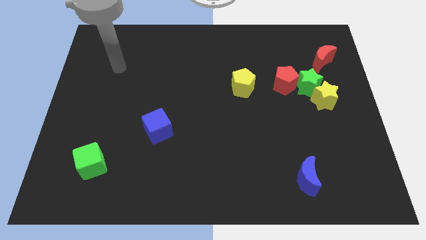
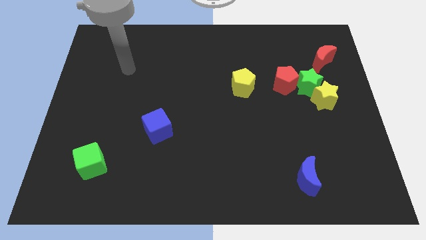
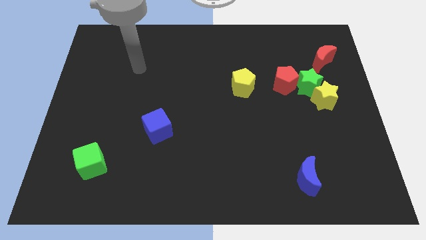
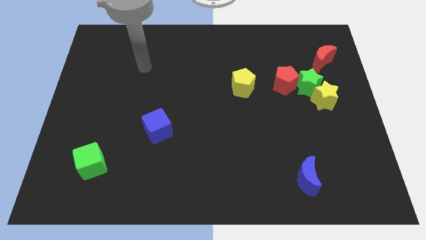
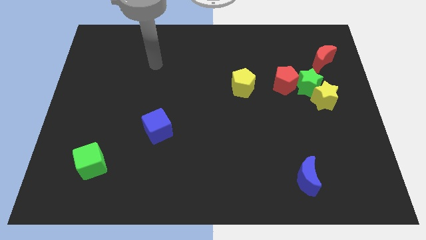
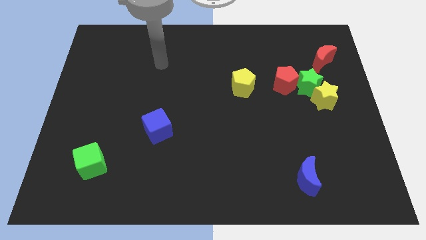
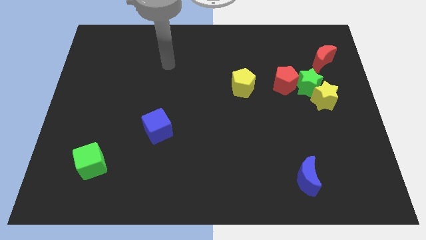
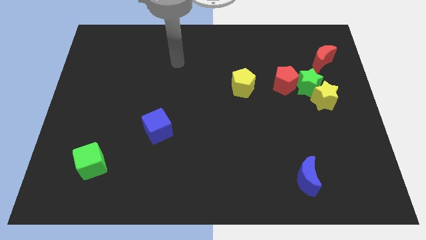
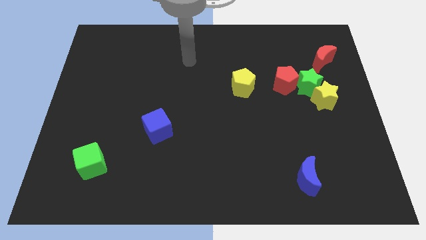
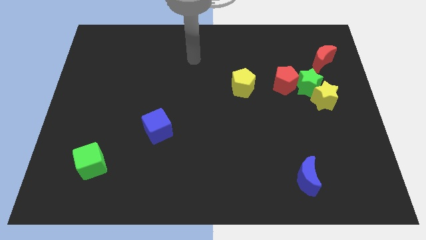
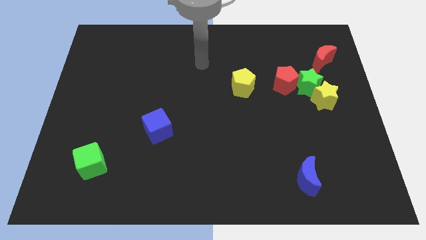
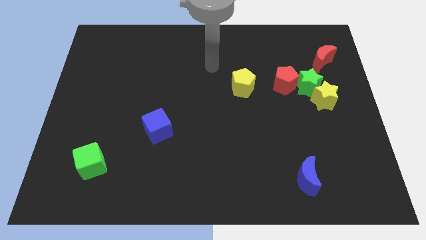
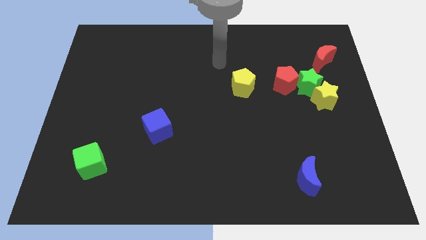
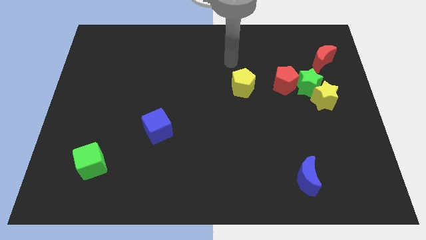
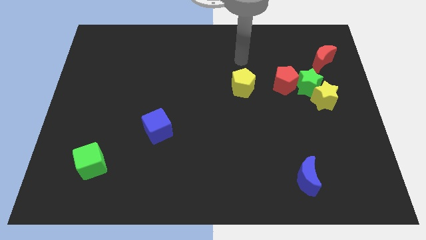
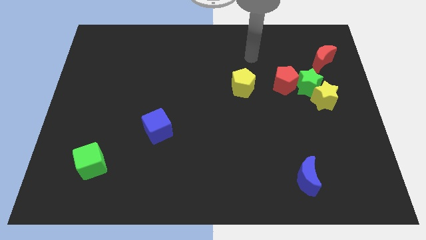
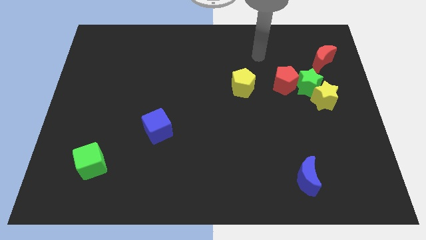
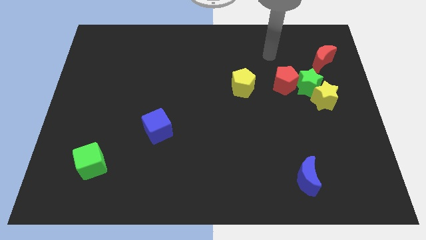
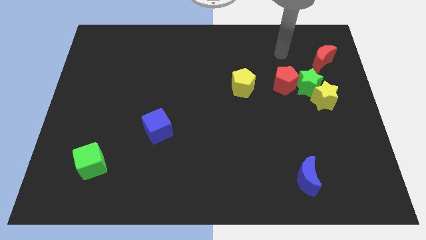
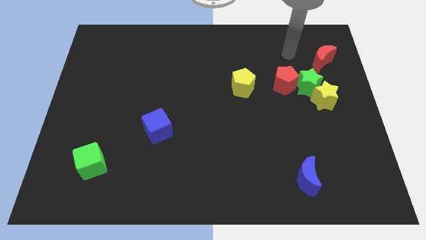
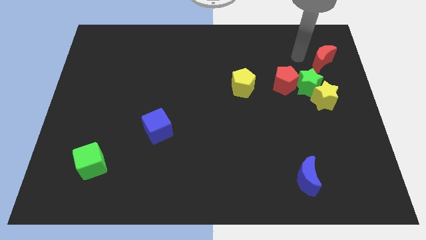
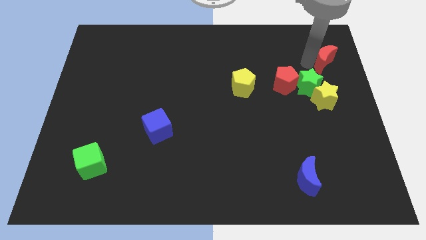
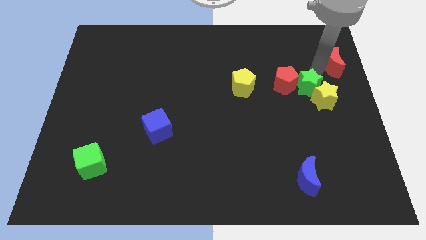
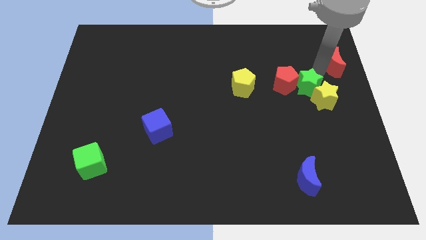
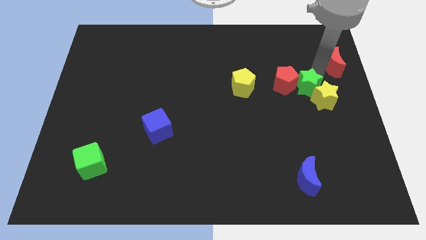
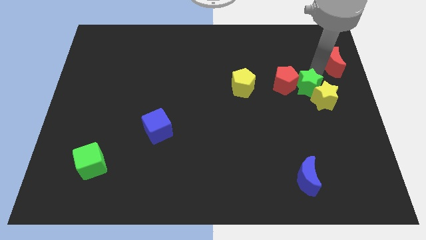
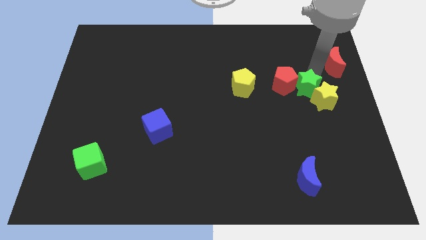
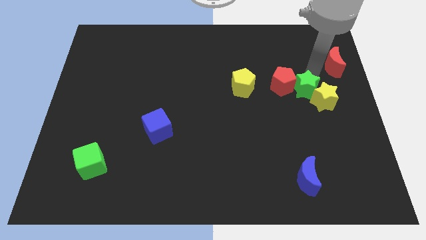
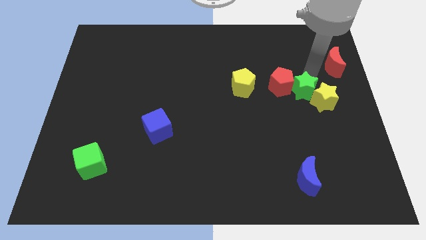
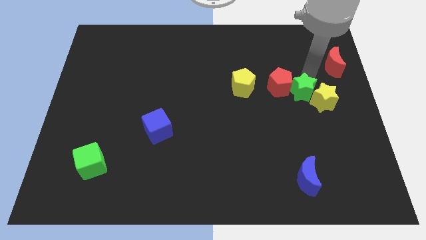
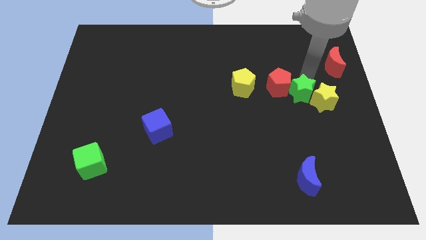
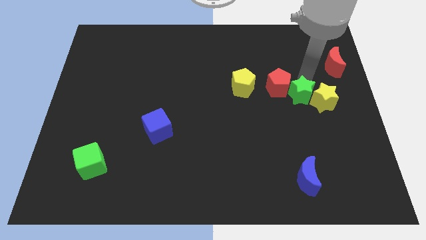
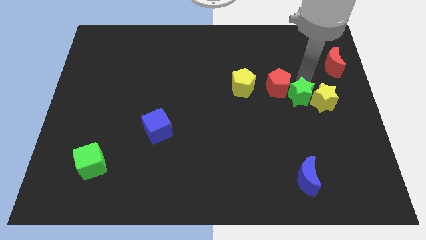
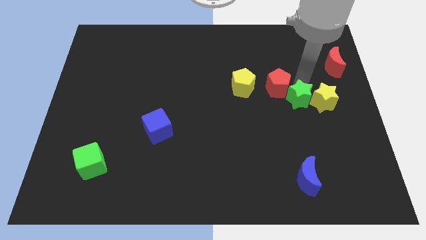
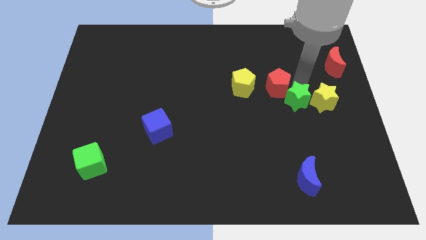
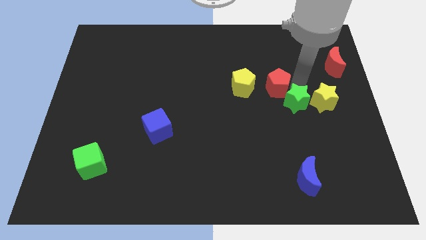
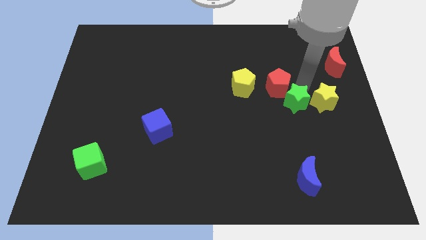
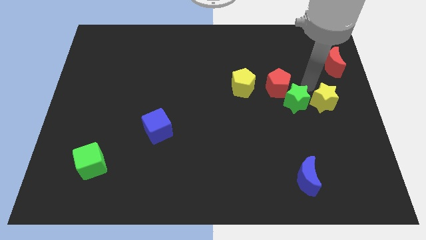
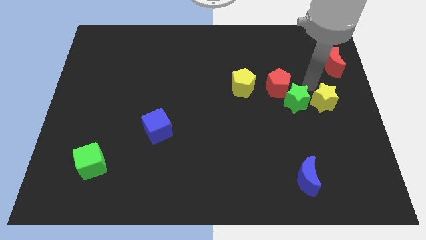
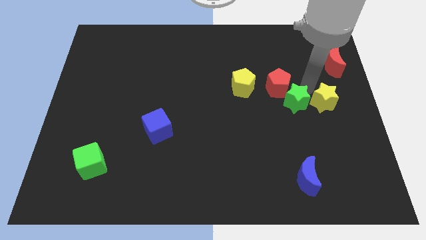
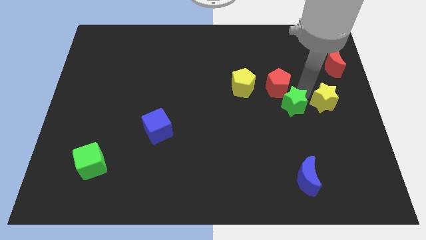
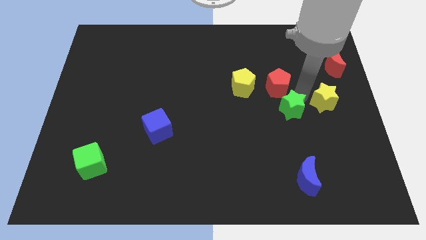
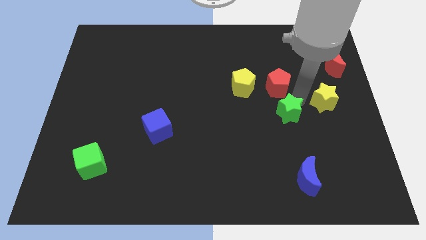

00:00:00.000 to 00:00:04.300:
separate the green star from the yellow star, red pentagon, and red moon

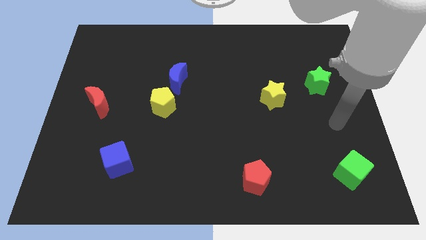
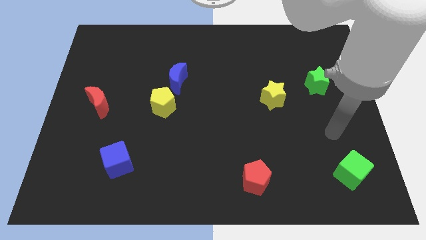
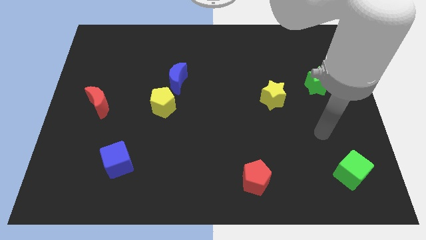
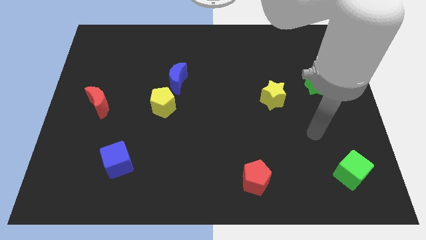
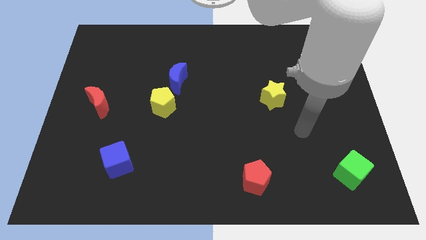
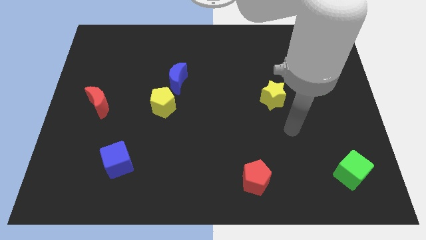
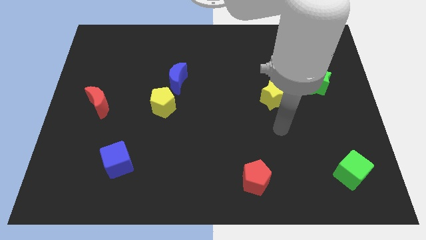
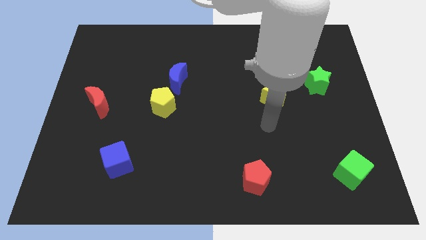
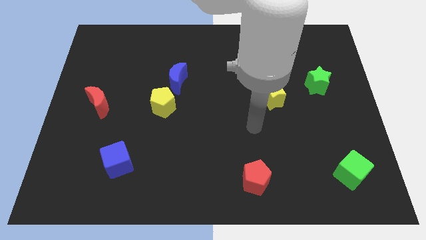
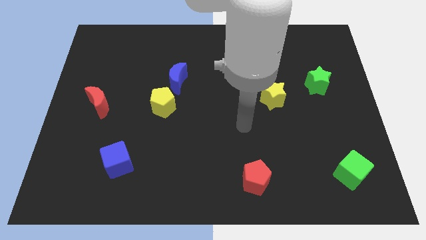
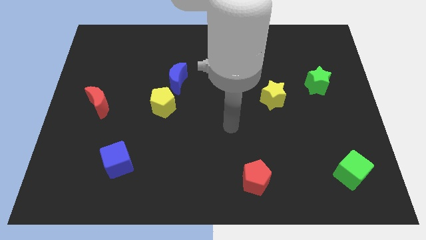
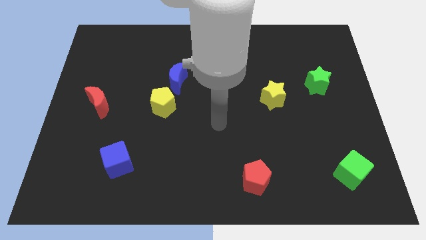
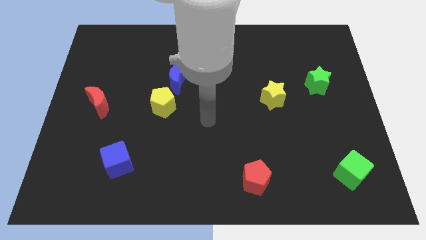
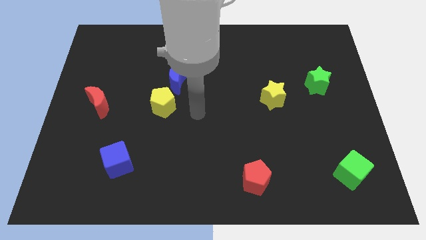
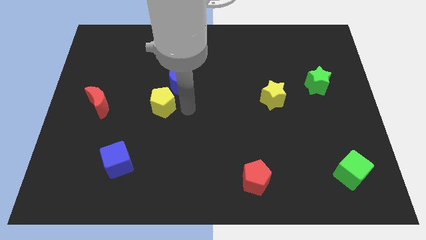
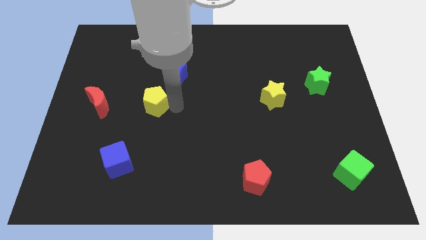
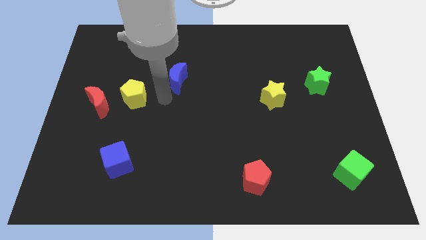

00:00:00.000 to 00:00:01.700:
pull the blue moon apart from the yellow pentagon

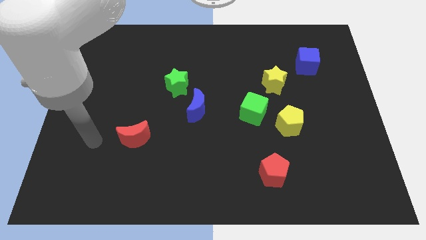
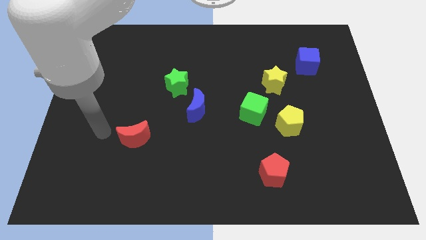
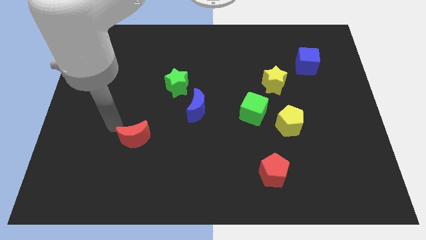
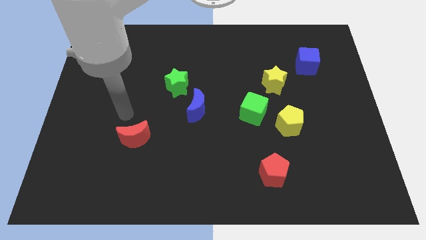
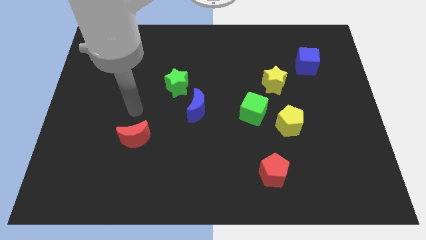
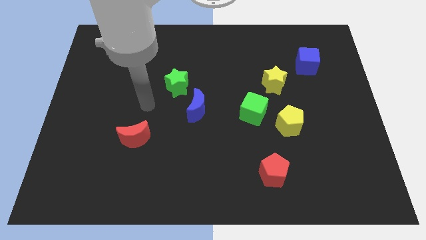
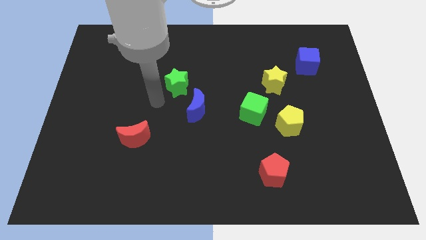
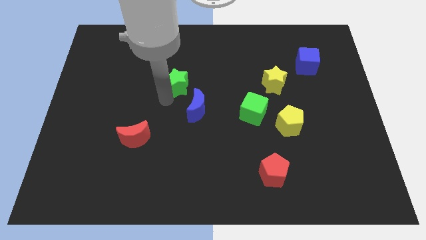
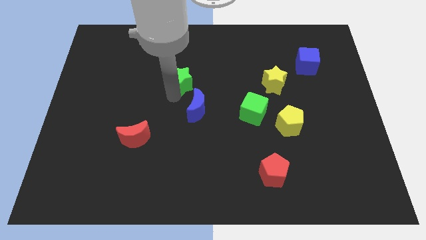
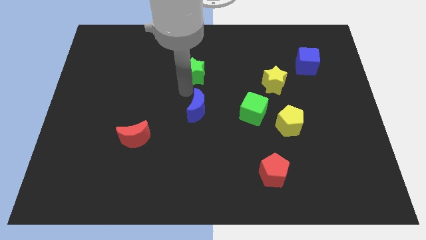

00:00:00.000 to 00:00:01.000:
separate the blue moon from the green star

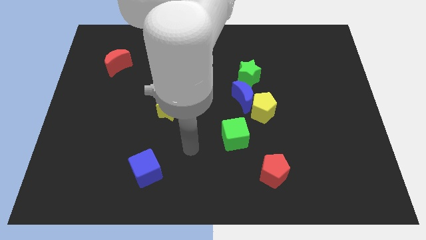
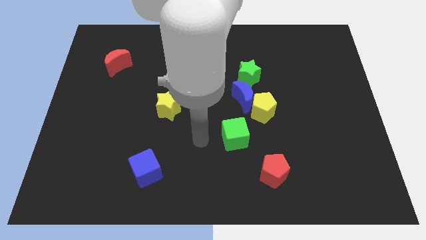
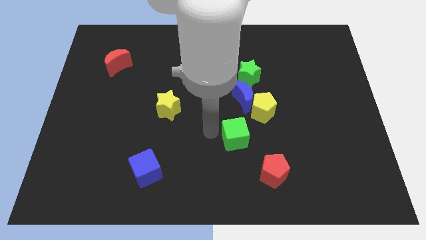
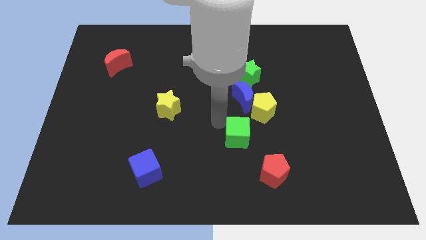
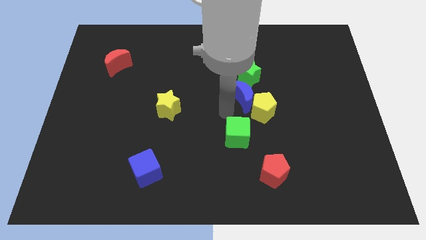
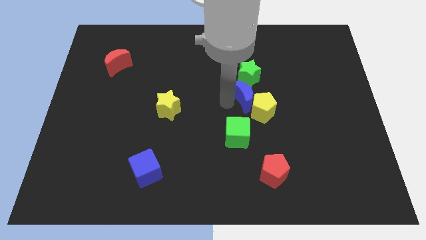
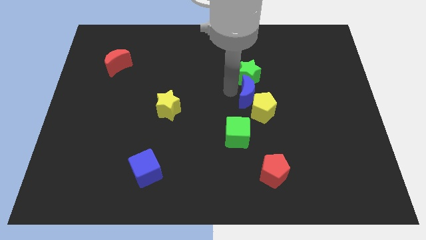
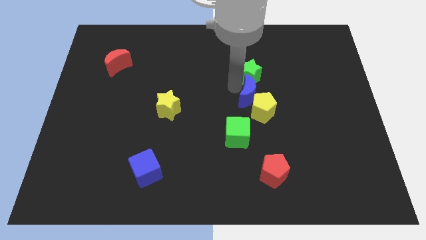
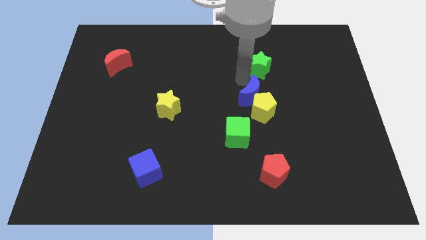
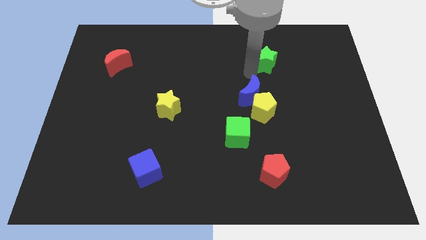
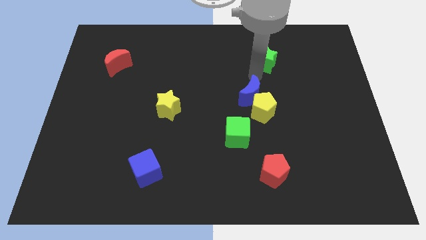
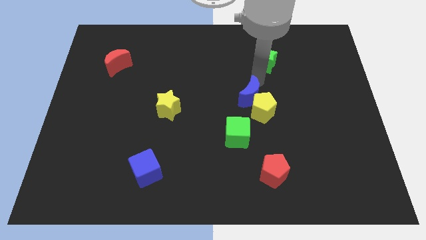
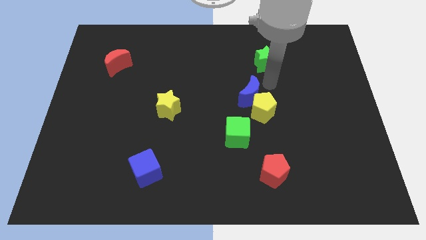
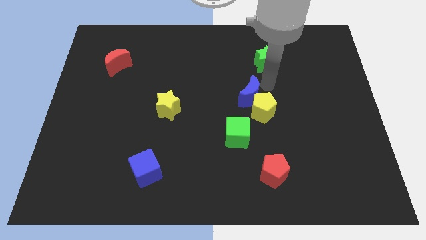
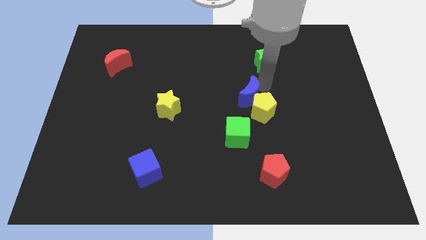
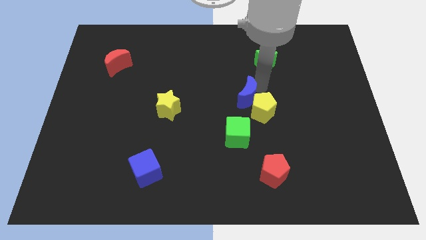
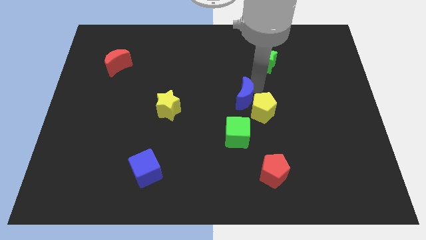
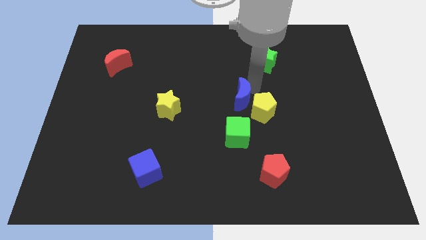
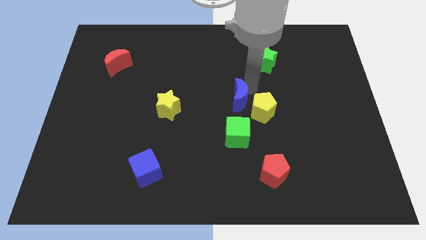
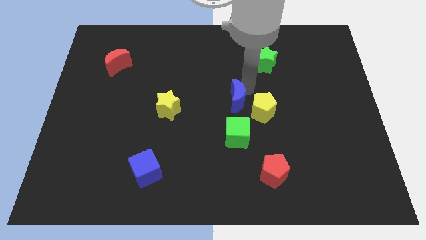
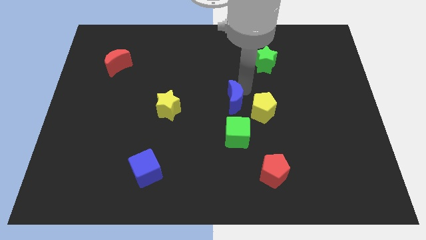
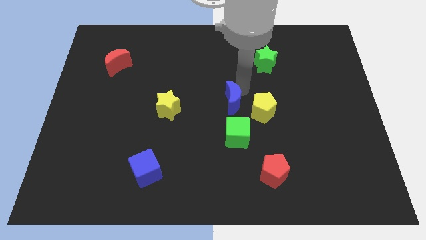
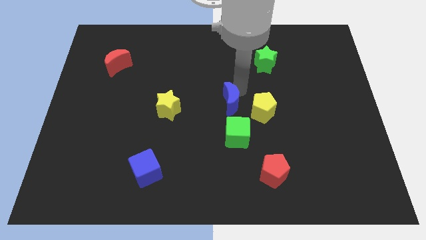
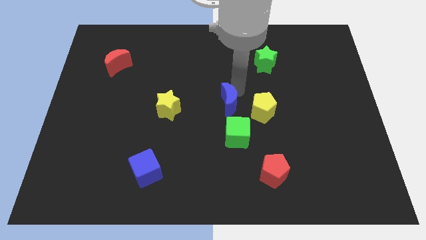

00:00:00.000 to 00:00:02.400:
pull the blue moon apart from the yellow pentagon and green star
